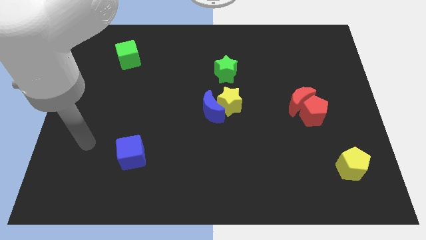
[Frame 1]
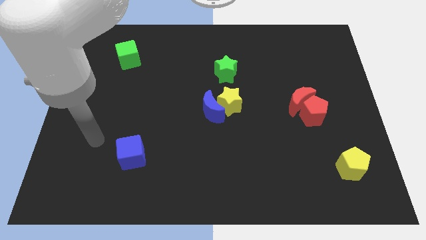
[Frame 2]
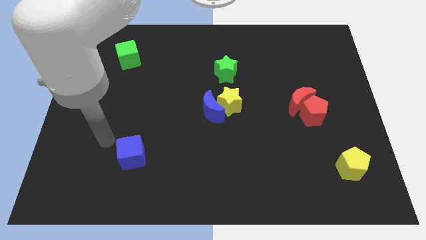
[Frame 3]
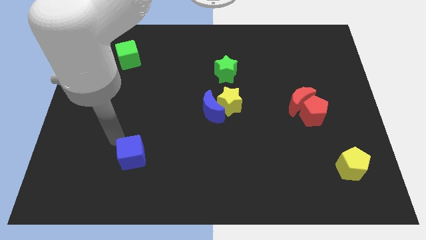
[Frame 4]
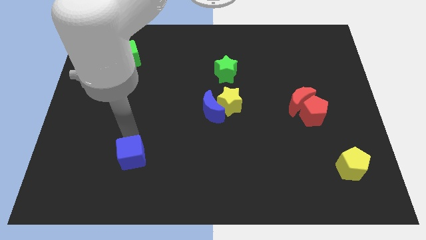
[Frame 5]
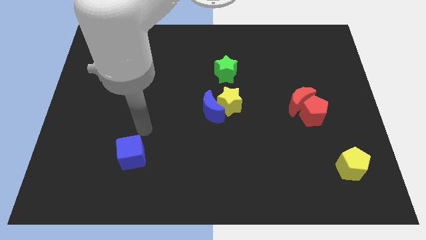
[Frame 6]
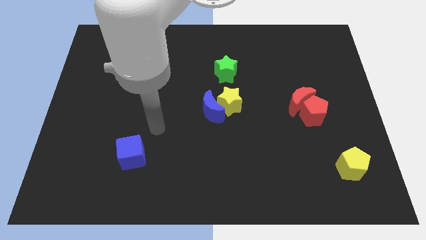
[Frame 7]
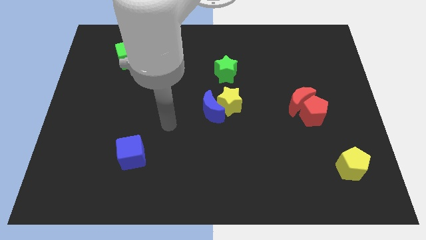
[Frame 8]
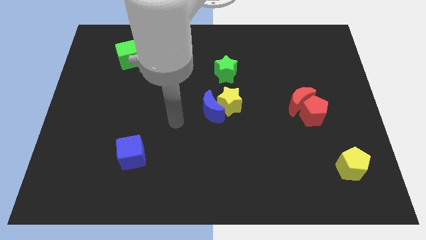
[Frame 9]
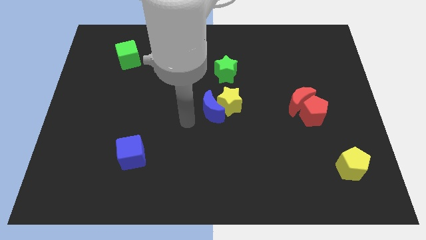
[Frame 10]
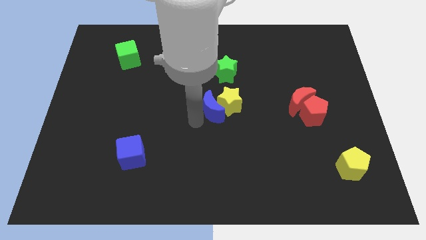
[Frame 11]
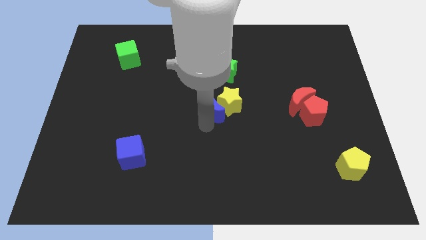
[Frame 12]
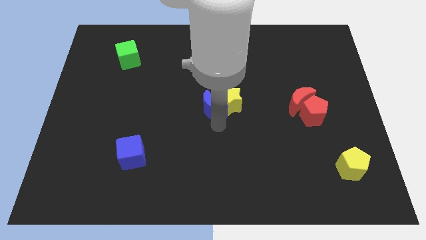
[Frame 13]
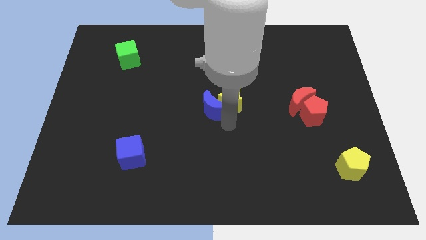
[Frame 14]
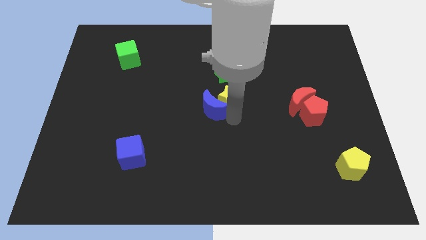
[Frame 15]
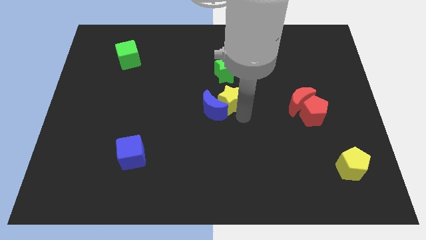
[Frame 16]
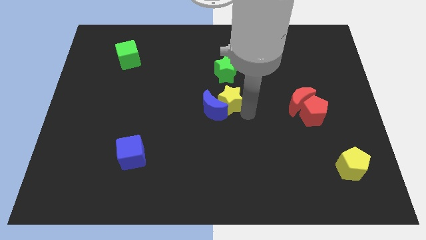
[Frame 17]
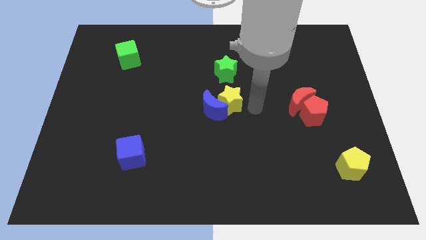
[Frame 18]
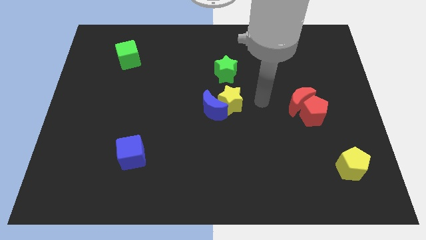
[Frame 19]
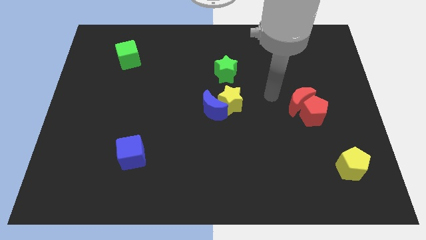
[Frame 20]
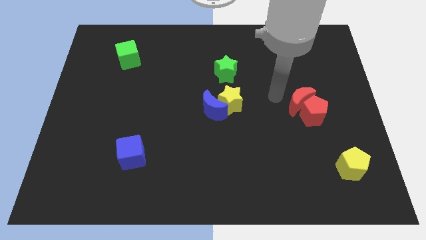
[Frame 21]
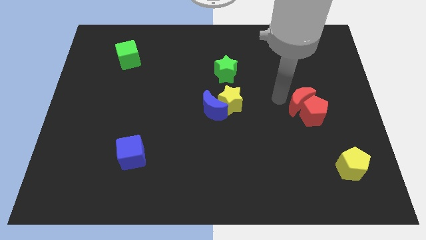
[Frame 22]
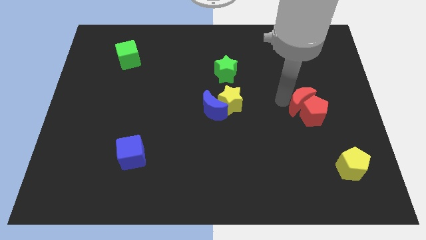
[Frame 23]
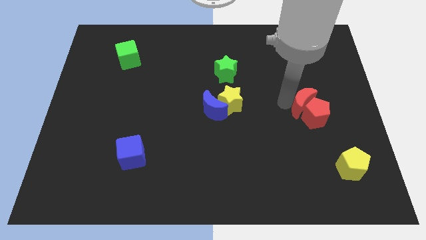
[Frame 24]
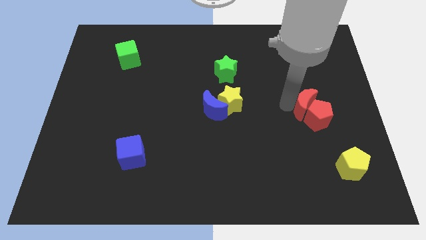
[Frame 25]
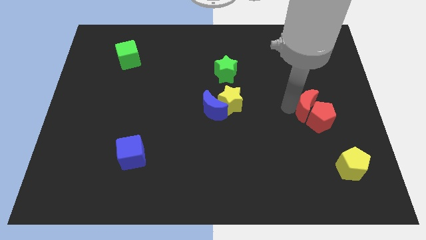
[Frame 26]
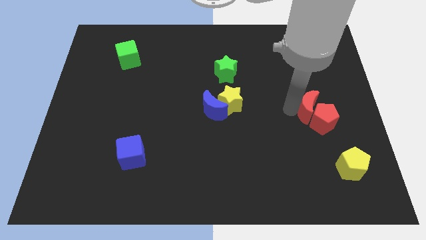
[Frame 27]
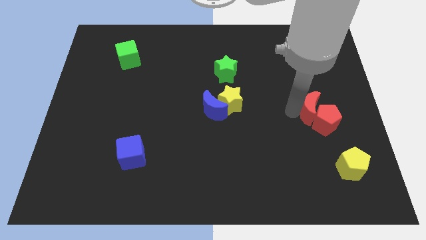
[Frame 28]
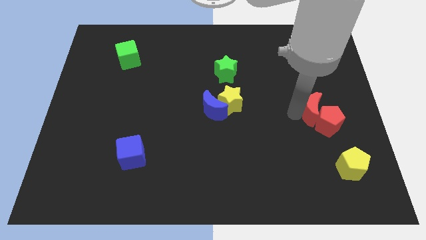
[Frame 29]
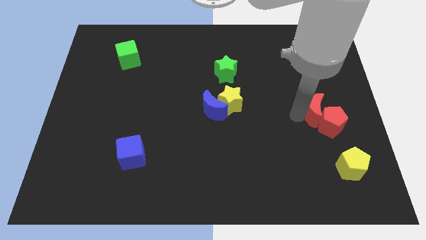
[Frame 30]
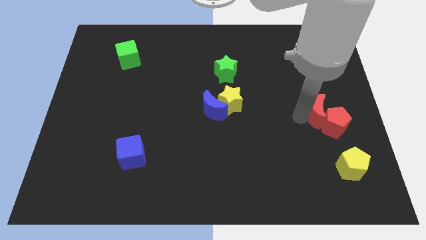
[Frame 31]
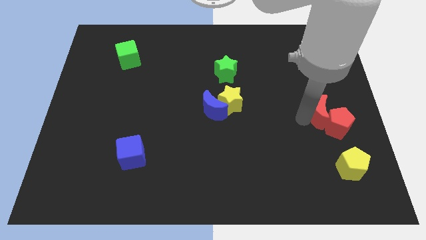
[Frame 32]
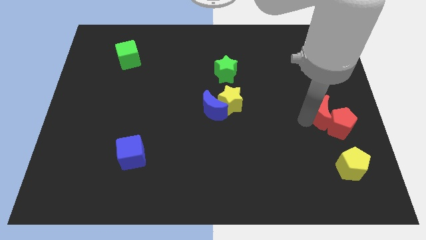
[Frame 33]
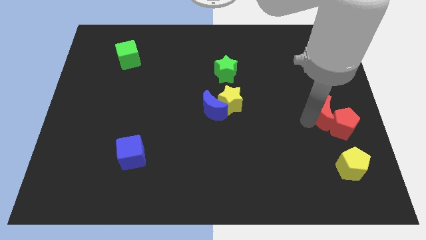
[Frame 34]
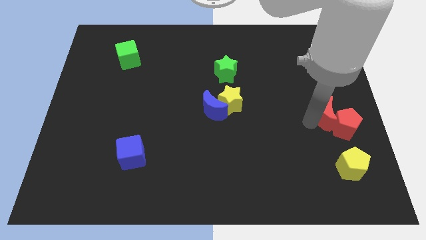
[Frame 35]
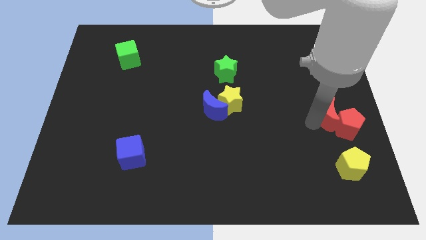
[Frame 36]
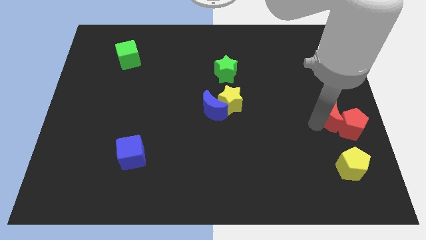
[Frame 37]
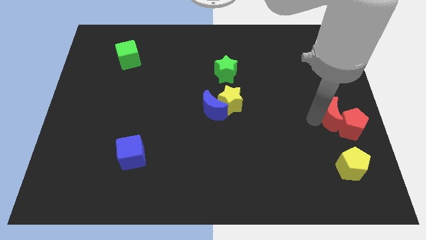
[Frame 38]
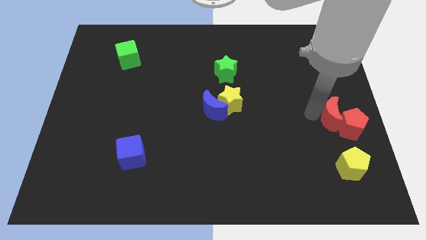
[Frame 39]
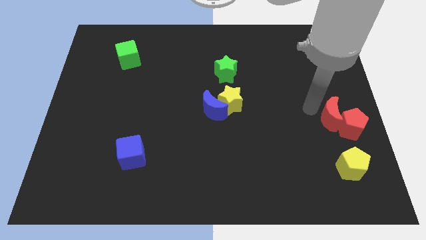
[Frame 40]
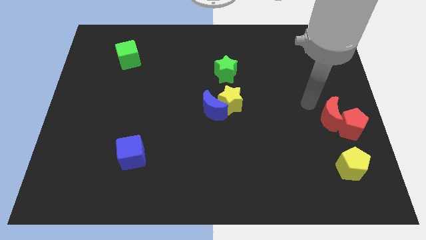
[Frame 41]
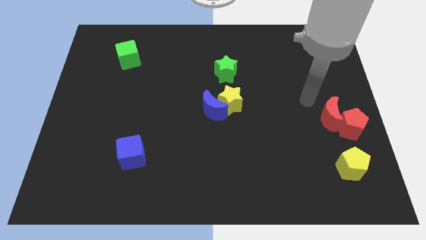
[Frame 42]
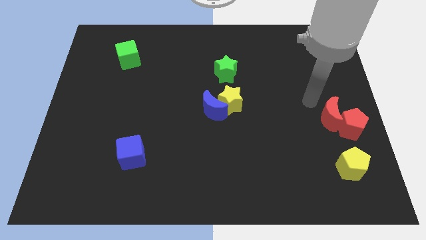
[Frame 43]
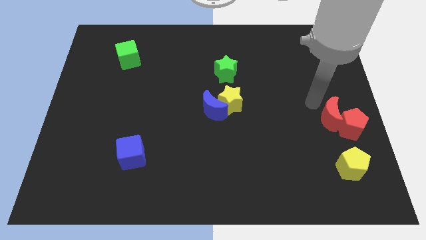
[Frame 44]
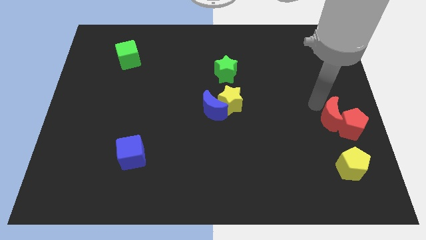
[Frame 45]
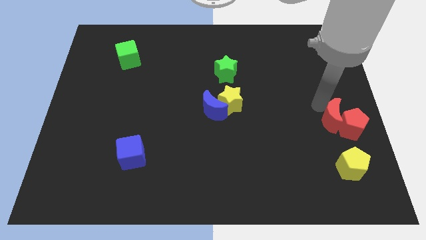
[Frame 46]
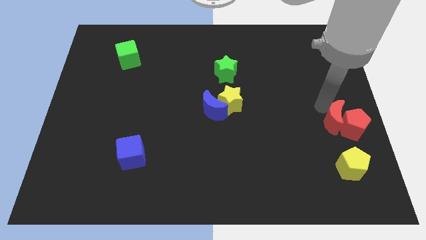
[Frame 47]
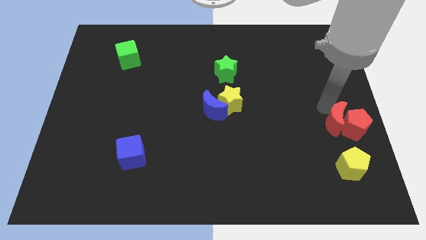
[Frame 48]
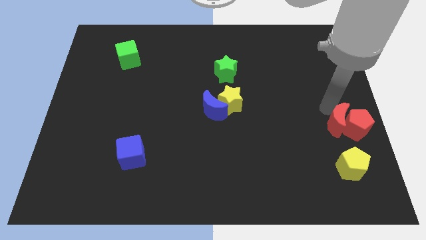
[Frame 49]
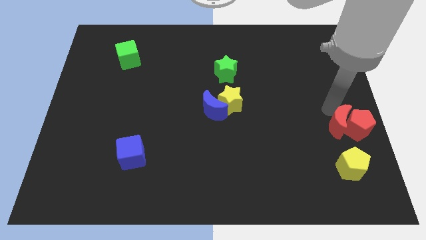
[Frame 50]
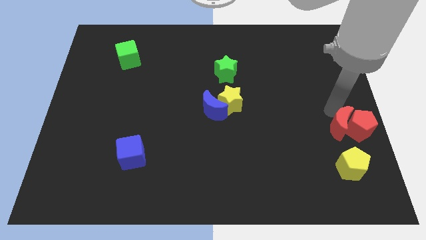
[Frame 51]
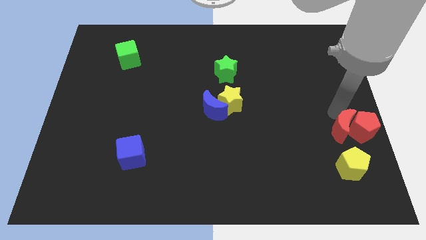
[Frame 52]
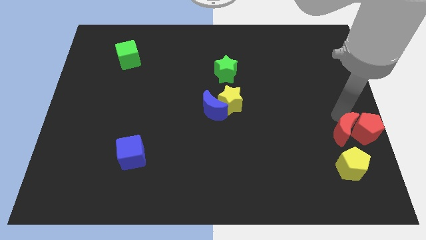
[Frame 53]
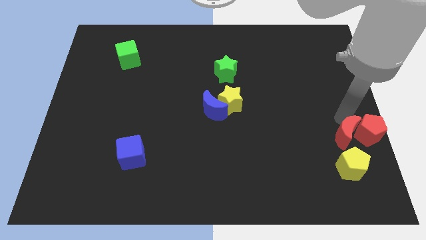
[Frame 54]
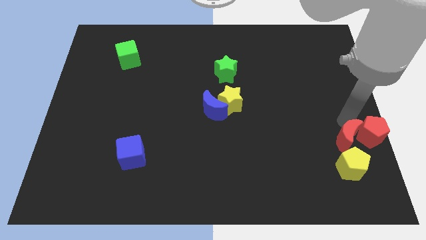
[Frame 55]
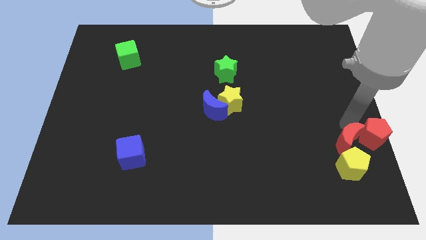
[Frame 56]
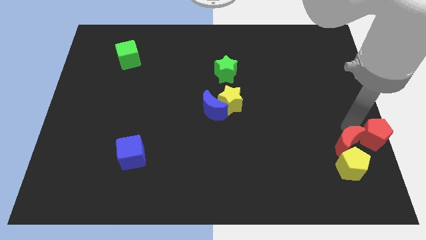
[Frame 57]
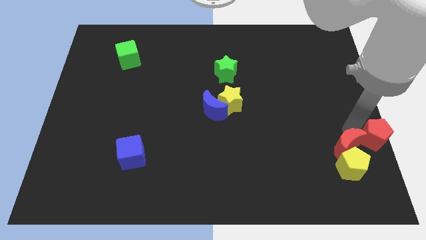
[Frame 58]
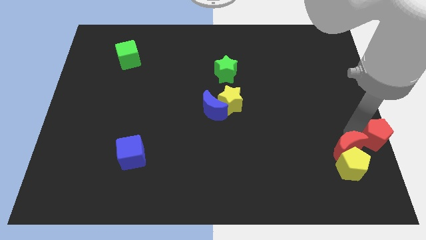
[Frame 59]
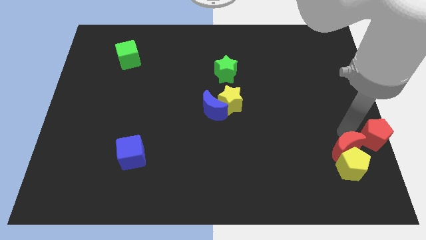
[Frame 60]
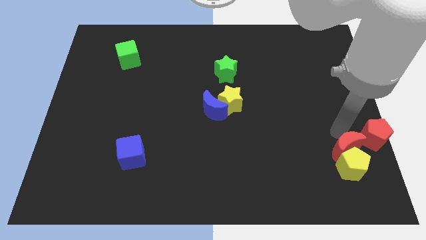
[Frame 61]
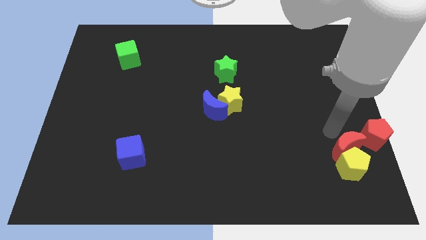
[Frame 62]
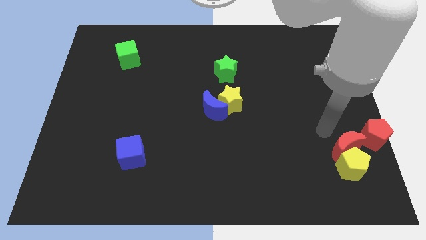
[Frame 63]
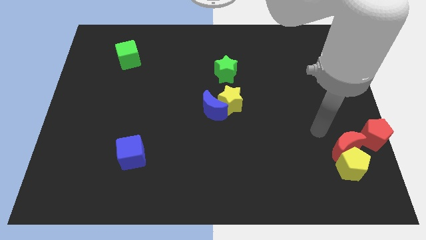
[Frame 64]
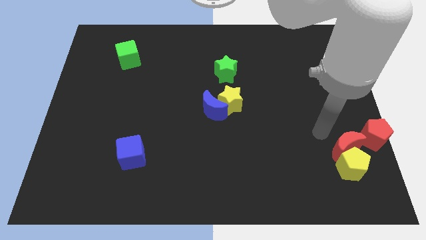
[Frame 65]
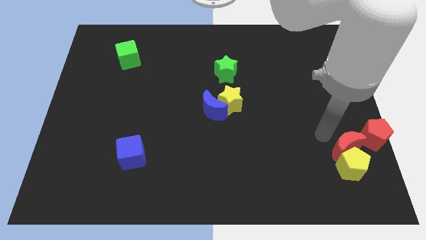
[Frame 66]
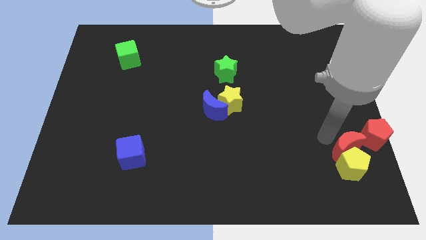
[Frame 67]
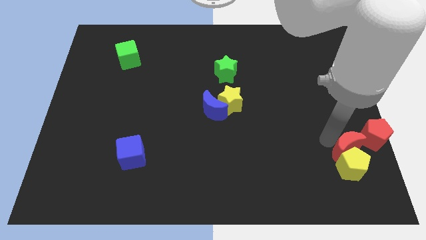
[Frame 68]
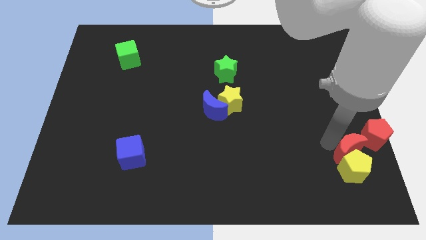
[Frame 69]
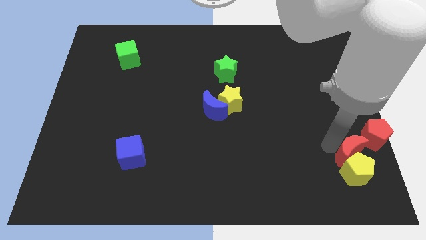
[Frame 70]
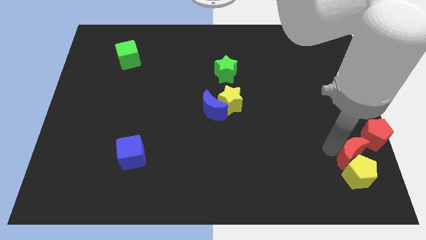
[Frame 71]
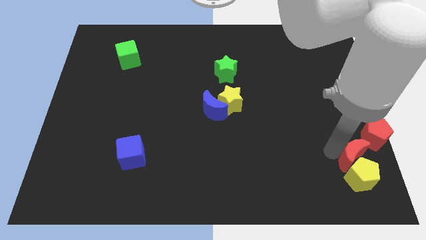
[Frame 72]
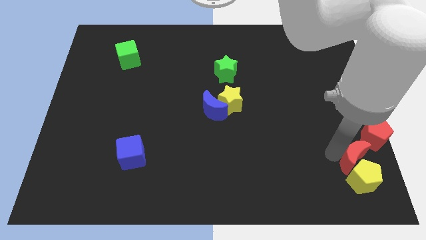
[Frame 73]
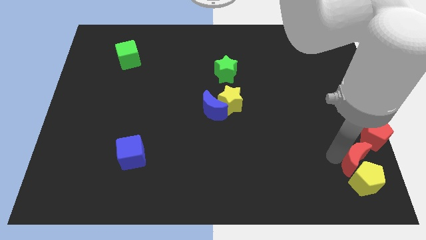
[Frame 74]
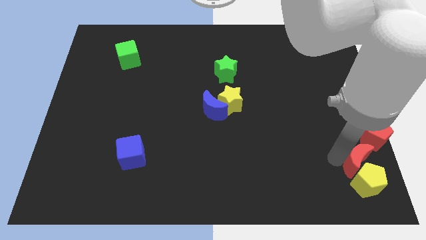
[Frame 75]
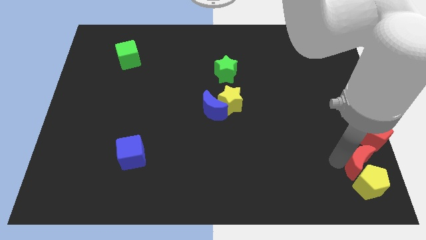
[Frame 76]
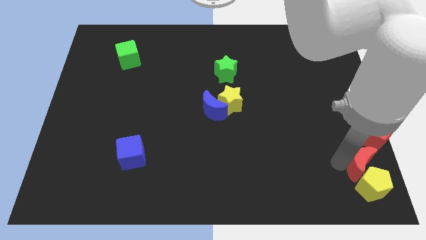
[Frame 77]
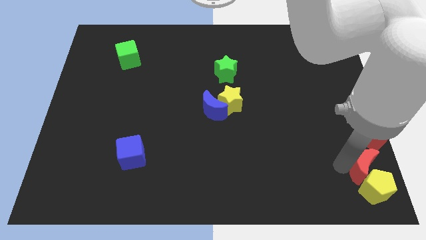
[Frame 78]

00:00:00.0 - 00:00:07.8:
push the red moon to the bottom right of the board
